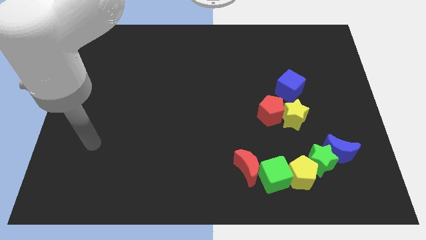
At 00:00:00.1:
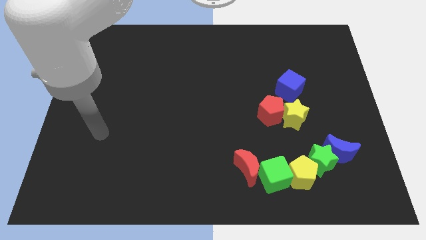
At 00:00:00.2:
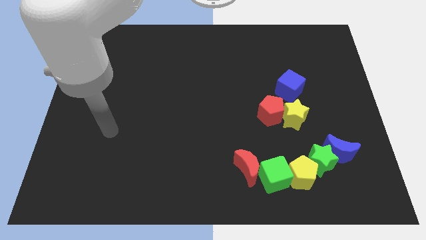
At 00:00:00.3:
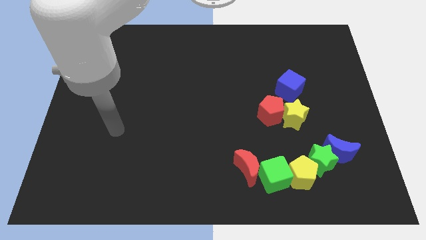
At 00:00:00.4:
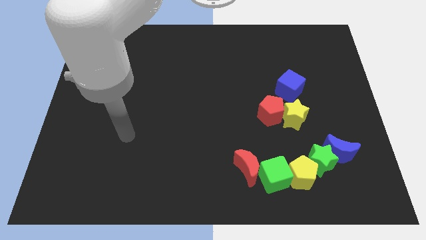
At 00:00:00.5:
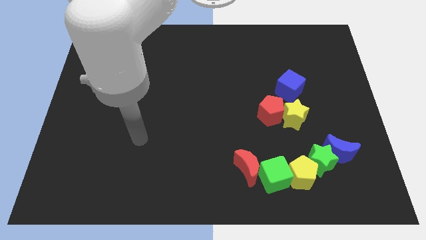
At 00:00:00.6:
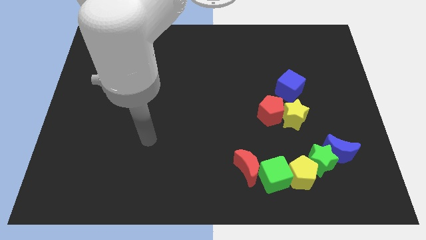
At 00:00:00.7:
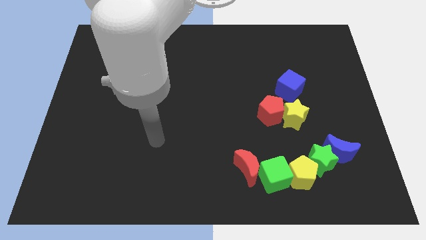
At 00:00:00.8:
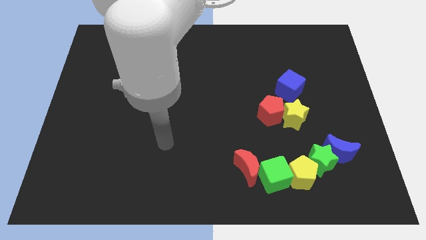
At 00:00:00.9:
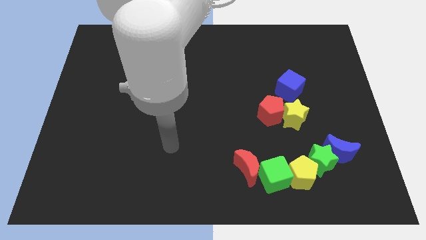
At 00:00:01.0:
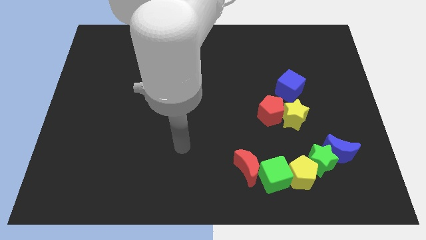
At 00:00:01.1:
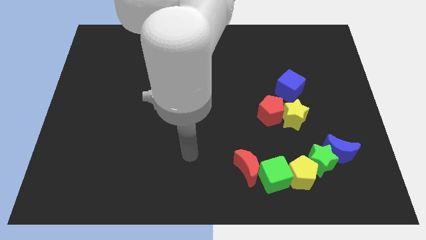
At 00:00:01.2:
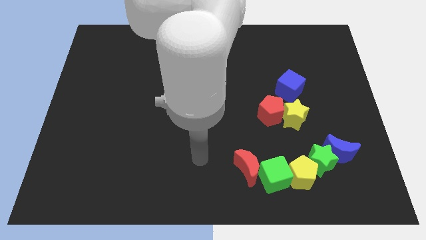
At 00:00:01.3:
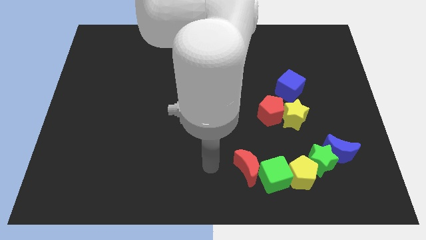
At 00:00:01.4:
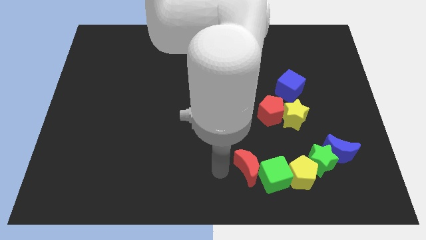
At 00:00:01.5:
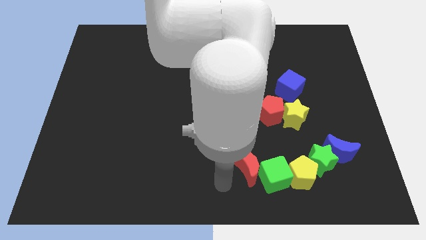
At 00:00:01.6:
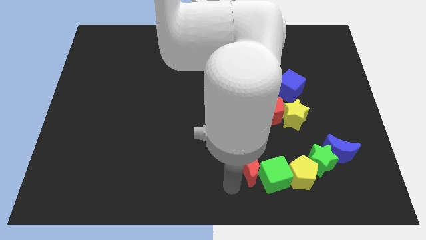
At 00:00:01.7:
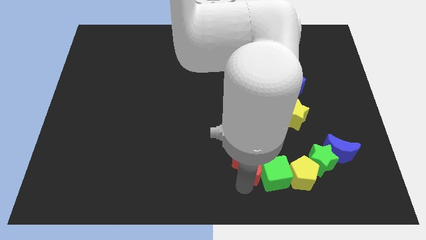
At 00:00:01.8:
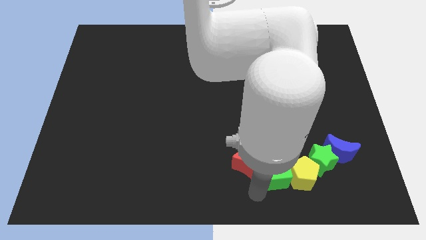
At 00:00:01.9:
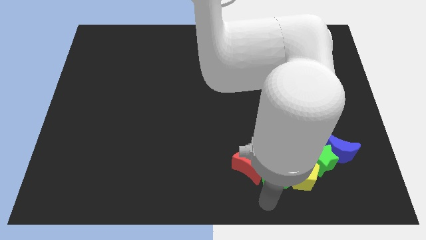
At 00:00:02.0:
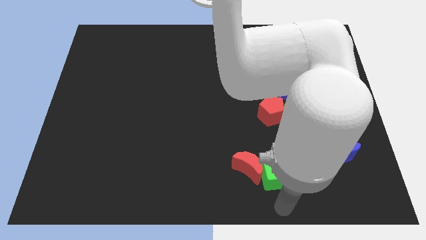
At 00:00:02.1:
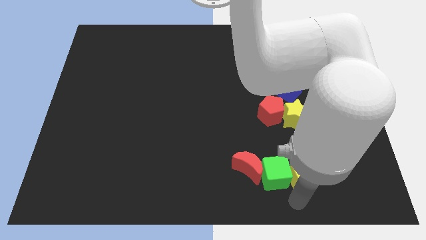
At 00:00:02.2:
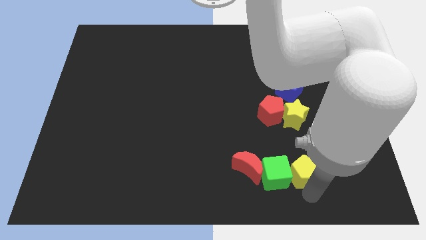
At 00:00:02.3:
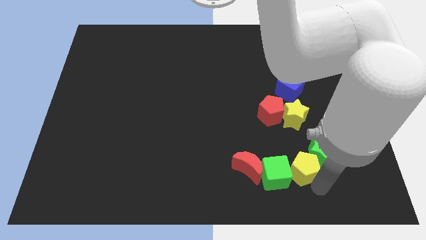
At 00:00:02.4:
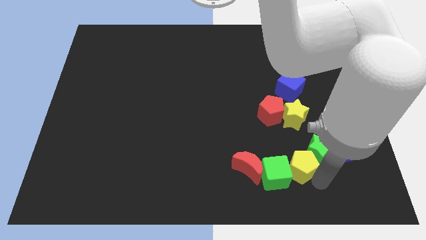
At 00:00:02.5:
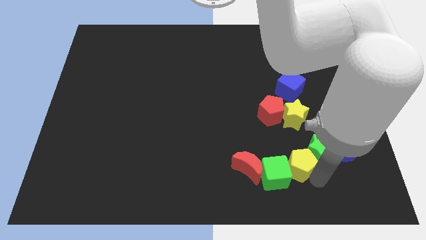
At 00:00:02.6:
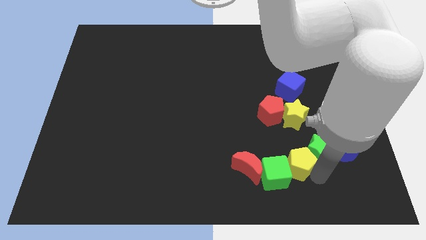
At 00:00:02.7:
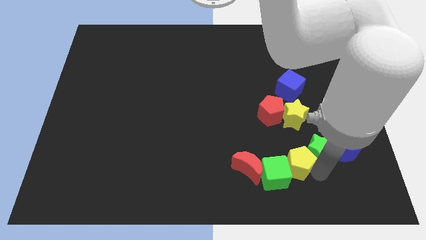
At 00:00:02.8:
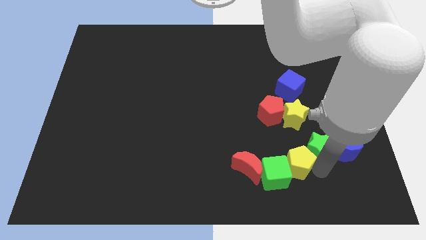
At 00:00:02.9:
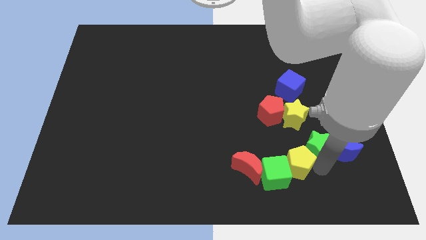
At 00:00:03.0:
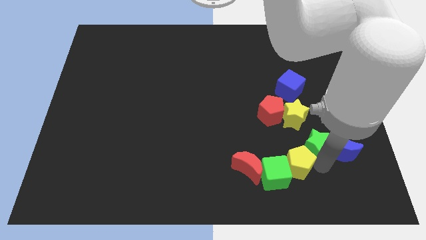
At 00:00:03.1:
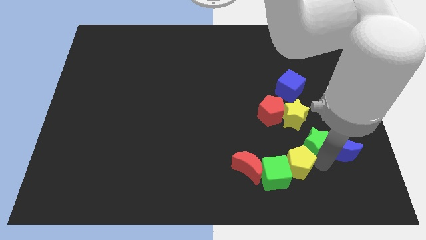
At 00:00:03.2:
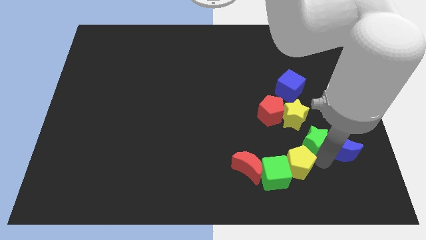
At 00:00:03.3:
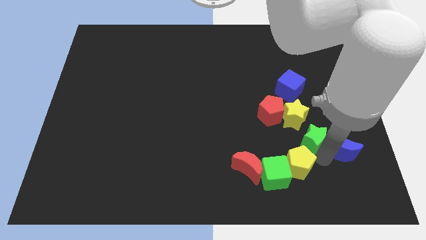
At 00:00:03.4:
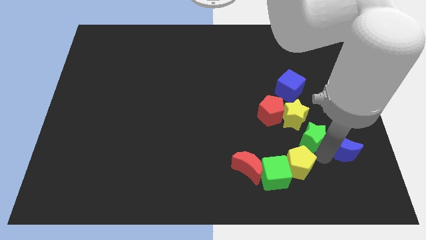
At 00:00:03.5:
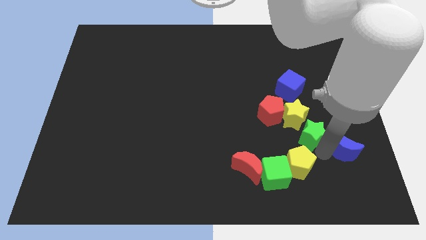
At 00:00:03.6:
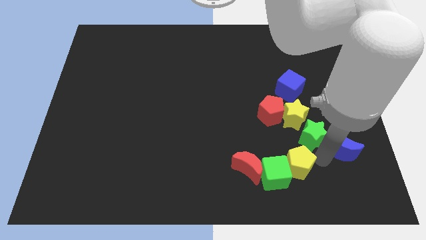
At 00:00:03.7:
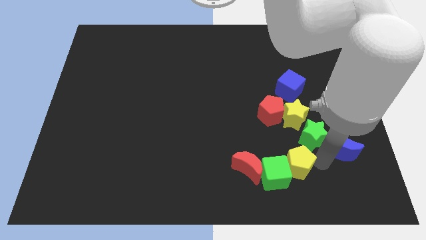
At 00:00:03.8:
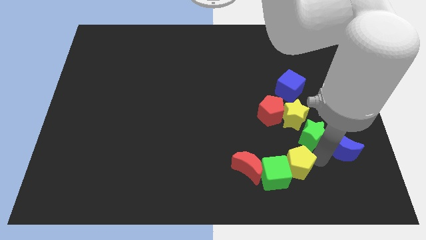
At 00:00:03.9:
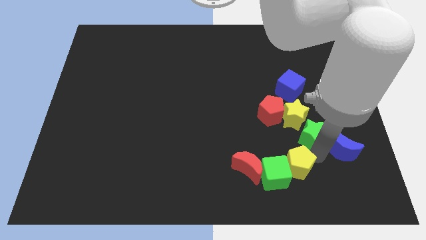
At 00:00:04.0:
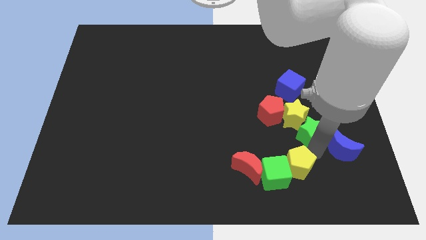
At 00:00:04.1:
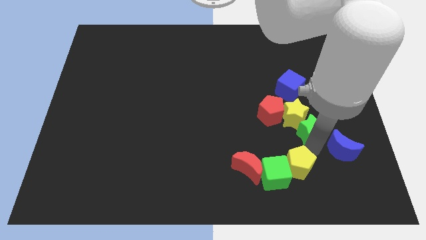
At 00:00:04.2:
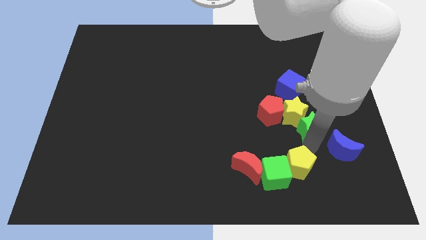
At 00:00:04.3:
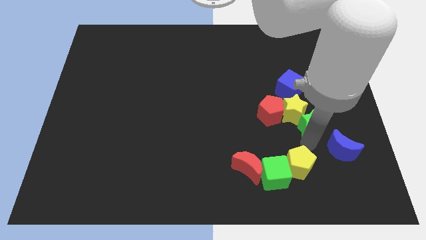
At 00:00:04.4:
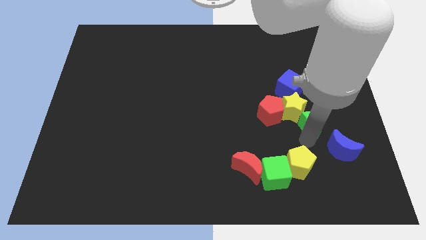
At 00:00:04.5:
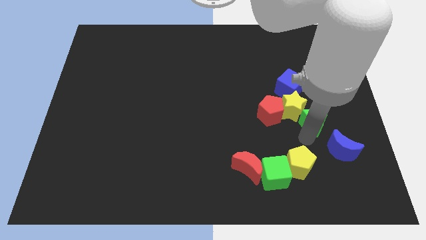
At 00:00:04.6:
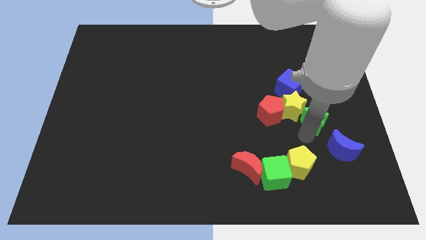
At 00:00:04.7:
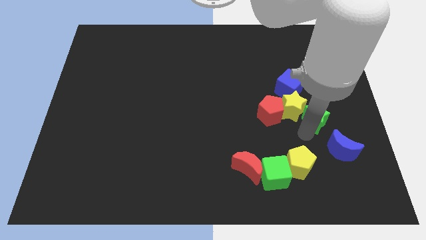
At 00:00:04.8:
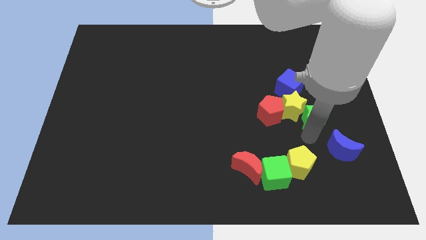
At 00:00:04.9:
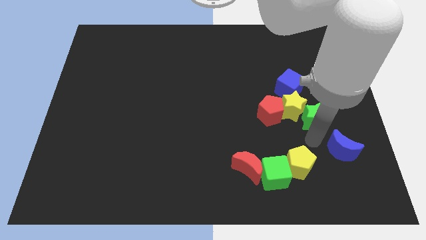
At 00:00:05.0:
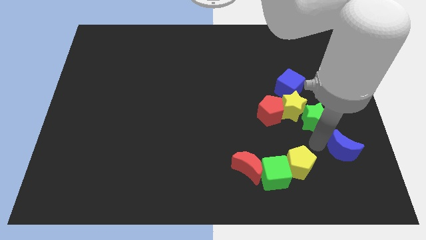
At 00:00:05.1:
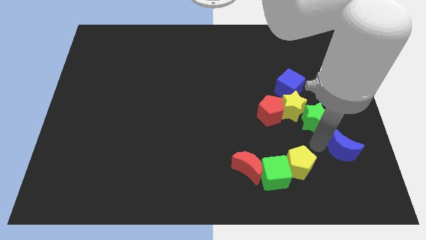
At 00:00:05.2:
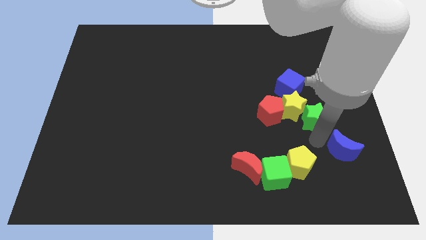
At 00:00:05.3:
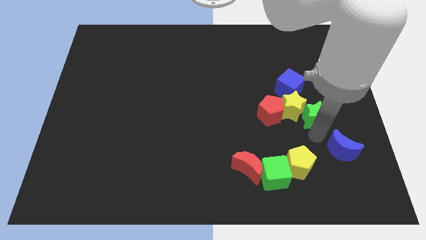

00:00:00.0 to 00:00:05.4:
pull the green star apart from the blue moon and yellow pentagon

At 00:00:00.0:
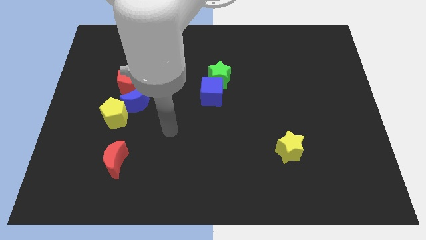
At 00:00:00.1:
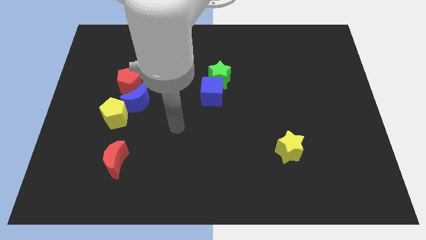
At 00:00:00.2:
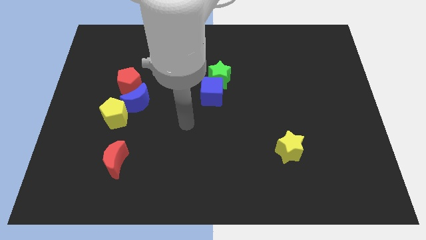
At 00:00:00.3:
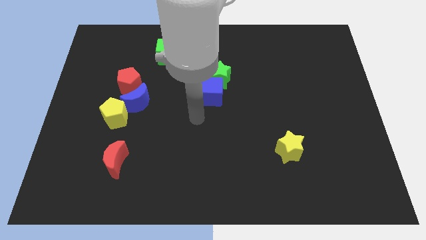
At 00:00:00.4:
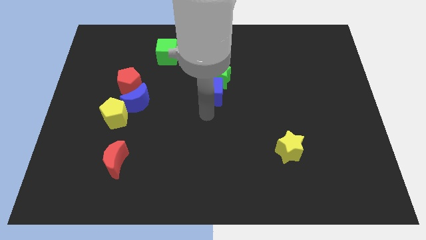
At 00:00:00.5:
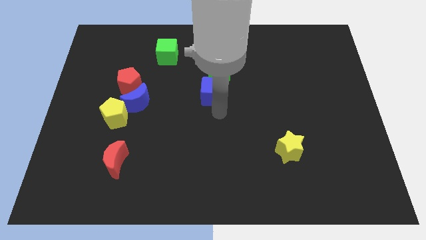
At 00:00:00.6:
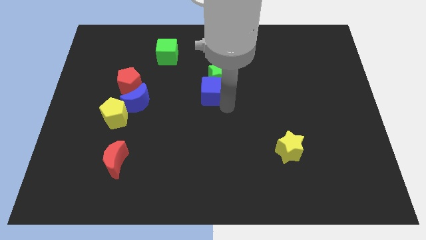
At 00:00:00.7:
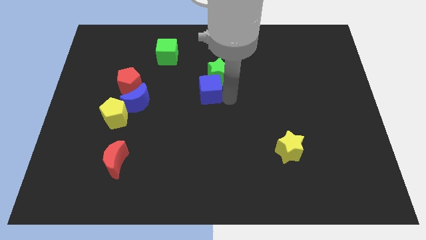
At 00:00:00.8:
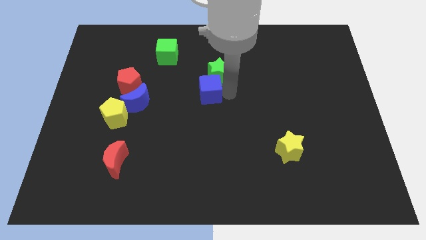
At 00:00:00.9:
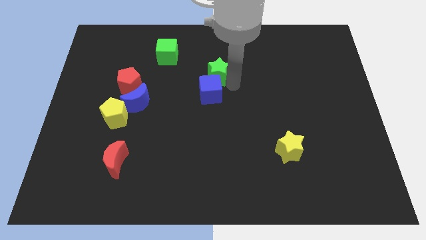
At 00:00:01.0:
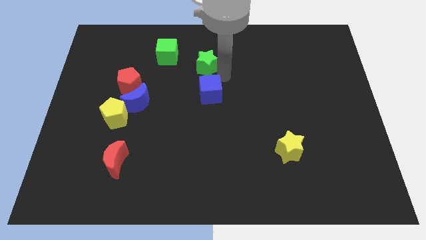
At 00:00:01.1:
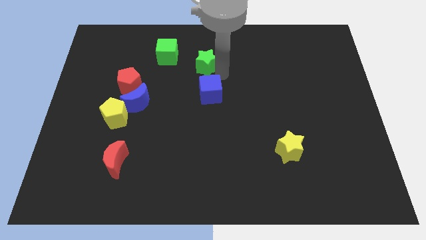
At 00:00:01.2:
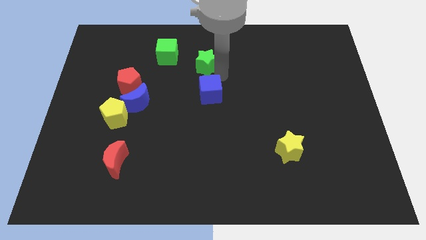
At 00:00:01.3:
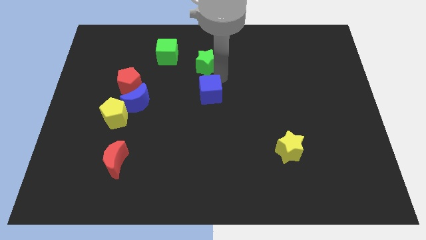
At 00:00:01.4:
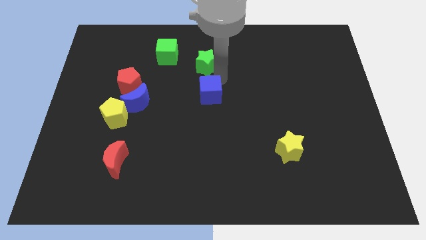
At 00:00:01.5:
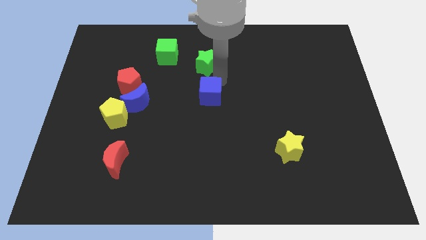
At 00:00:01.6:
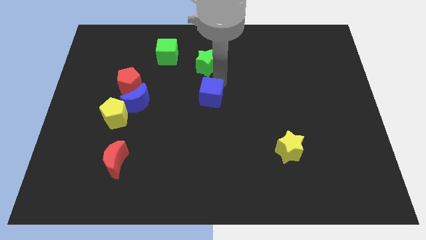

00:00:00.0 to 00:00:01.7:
separate the blue cube from the green star

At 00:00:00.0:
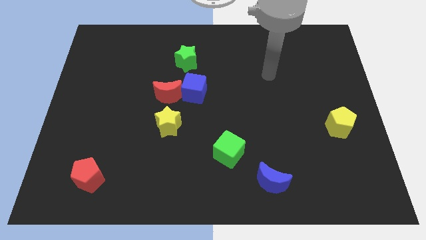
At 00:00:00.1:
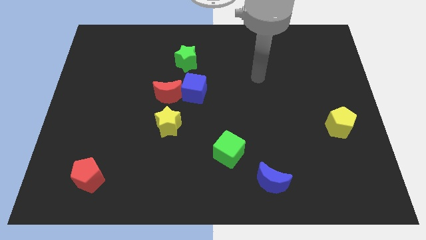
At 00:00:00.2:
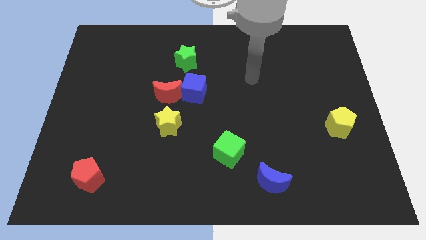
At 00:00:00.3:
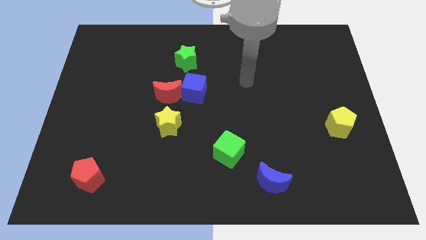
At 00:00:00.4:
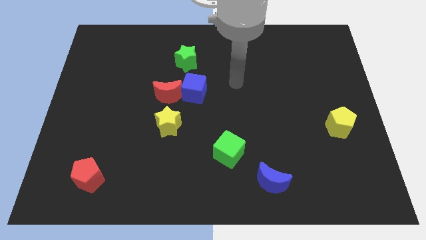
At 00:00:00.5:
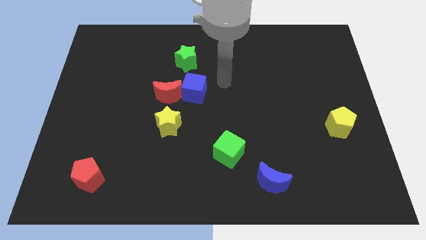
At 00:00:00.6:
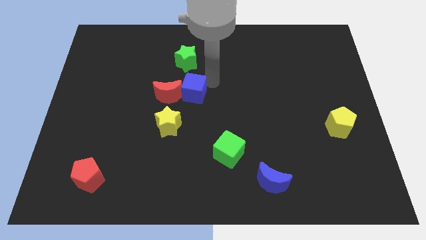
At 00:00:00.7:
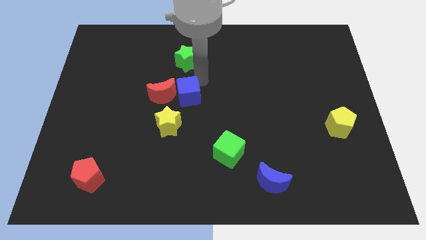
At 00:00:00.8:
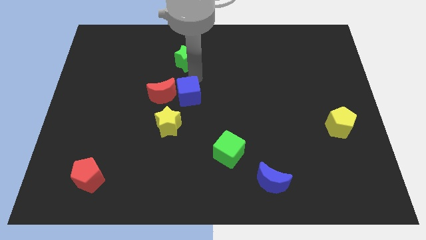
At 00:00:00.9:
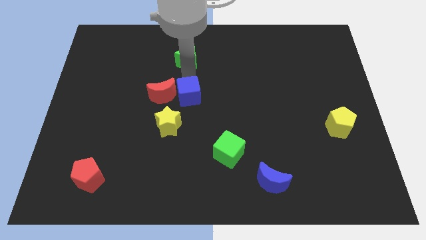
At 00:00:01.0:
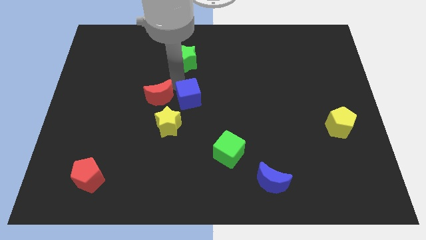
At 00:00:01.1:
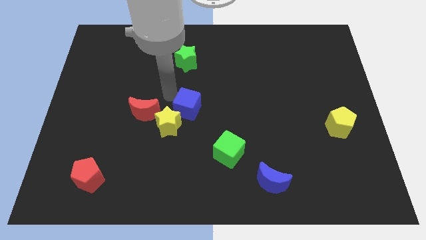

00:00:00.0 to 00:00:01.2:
move the blue cube away from the red moon

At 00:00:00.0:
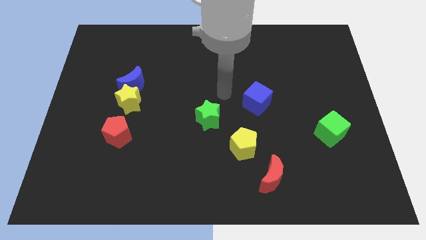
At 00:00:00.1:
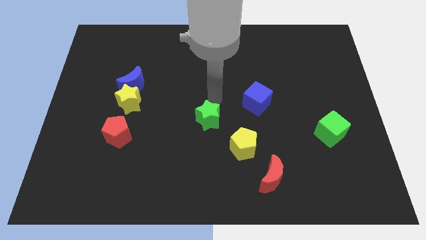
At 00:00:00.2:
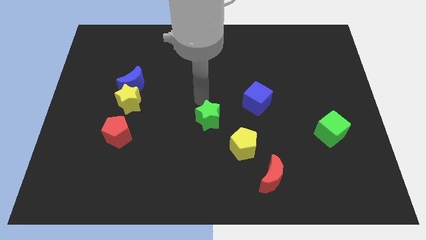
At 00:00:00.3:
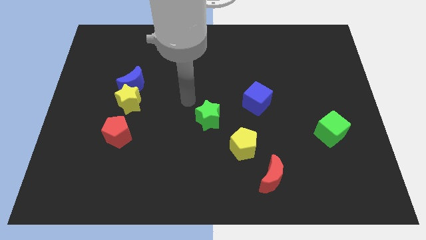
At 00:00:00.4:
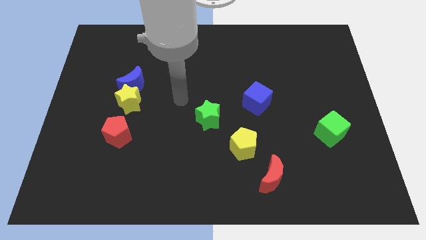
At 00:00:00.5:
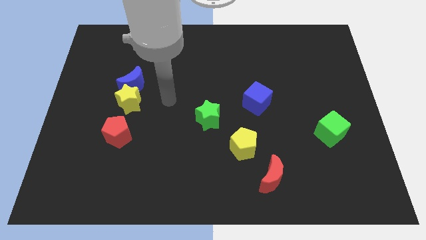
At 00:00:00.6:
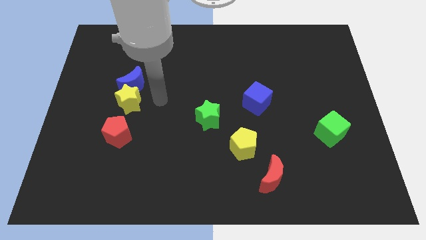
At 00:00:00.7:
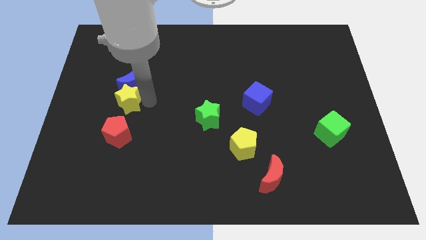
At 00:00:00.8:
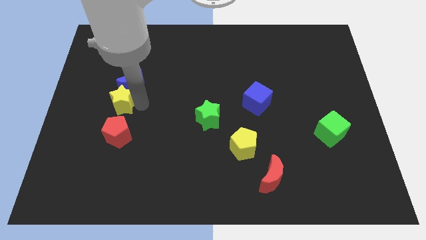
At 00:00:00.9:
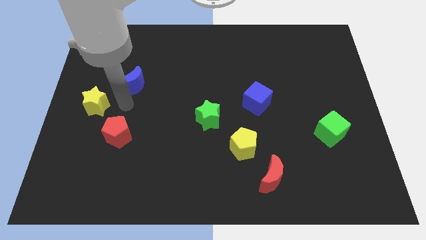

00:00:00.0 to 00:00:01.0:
pull the blue moon apart from the yellow star
